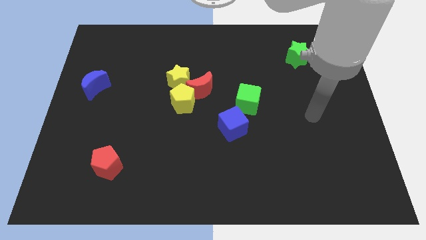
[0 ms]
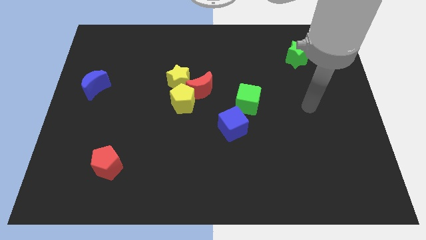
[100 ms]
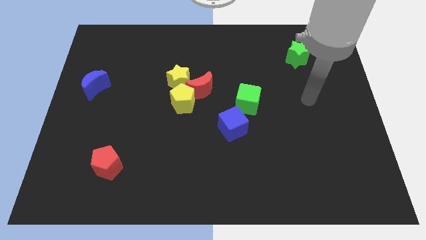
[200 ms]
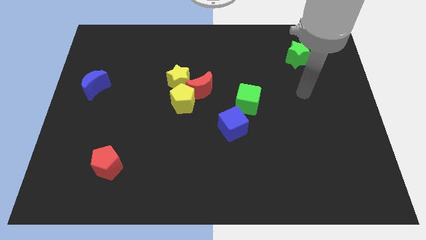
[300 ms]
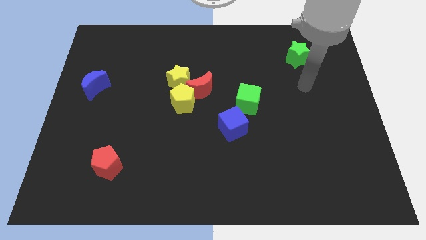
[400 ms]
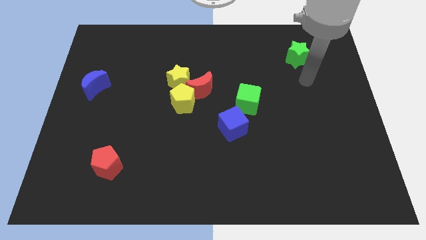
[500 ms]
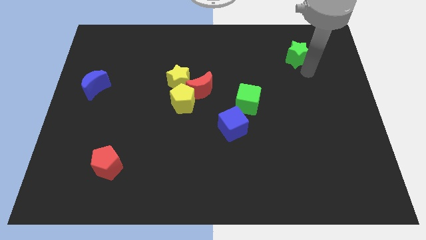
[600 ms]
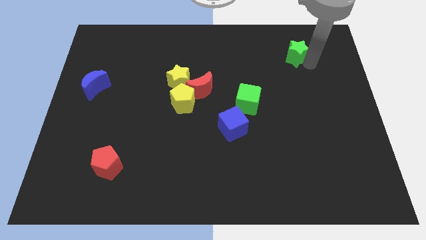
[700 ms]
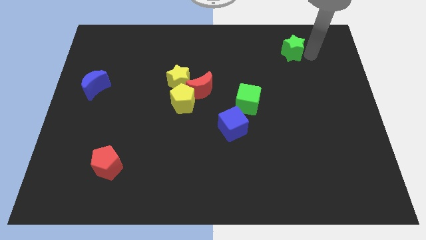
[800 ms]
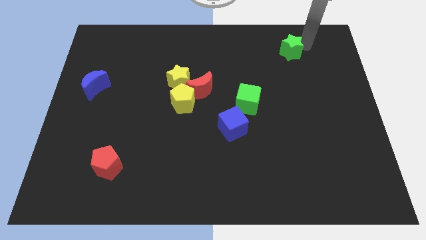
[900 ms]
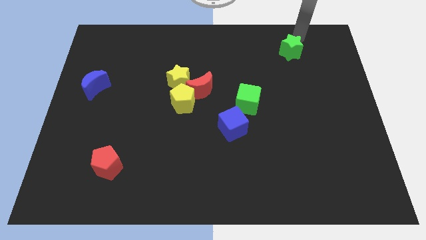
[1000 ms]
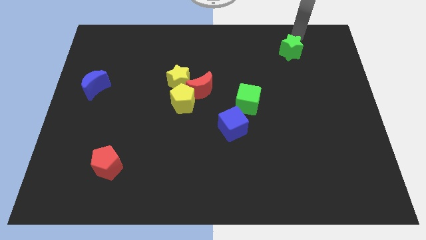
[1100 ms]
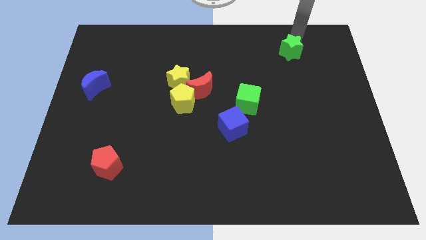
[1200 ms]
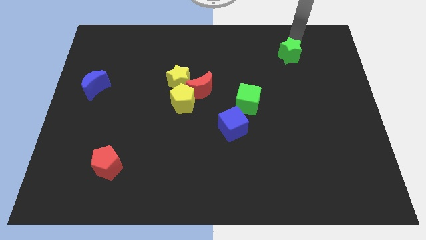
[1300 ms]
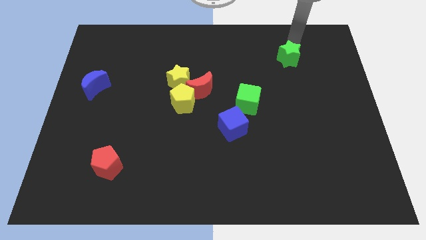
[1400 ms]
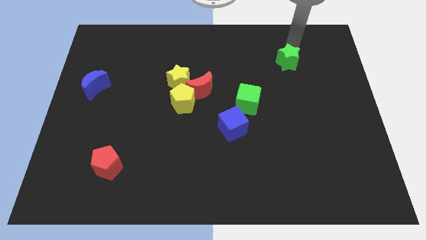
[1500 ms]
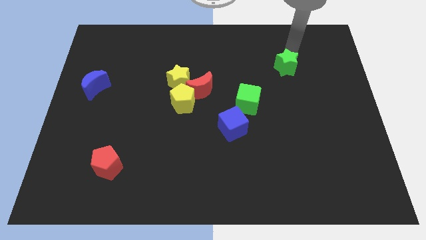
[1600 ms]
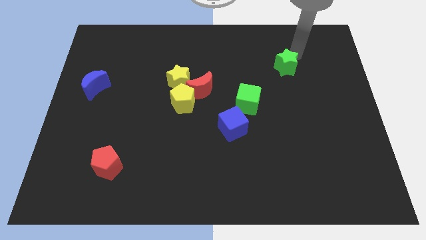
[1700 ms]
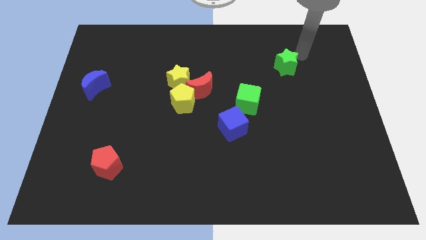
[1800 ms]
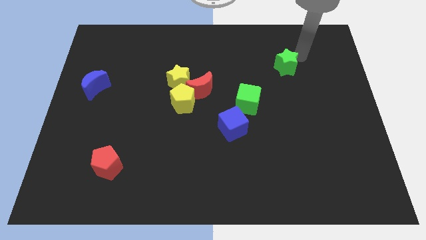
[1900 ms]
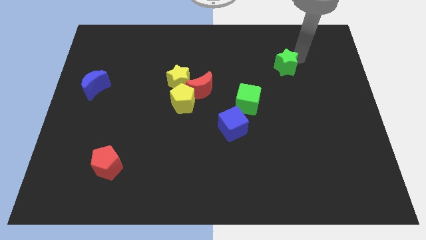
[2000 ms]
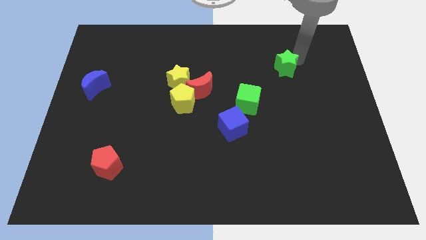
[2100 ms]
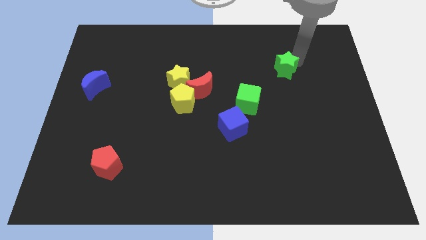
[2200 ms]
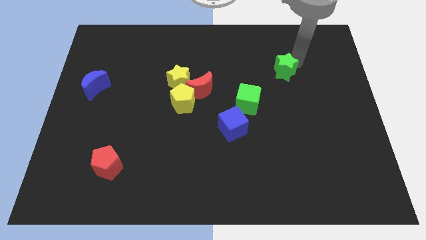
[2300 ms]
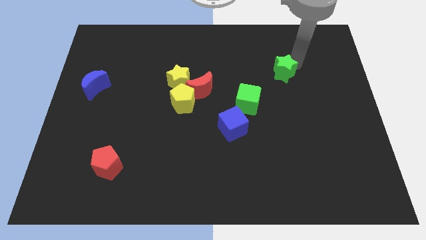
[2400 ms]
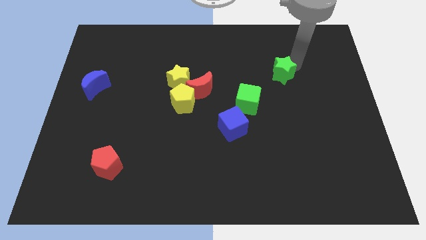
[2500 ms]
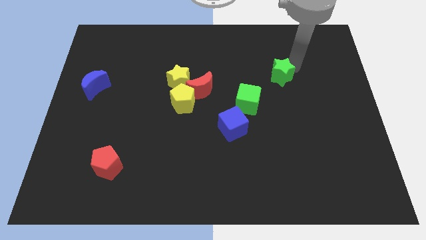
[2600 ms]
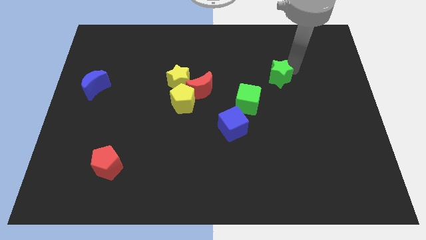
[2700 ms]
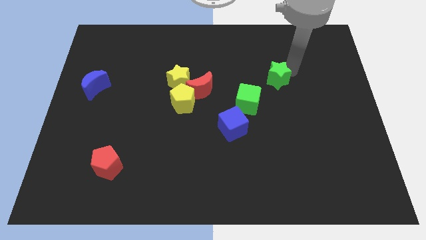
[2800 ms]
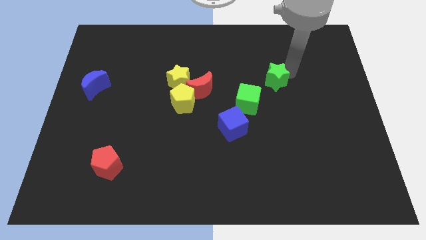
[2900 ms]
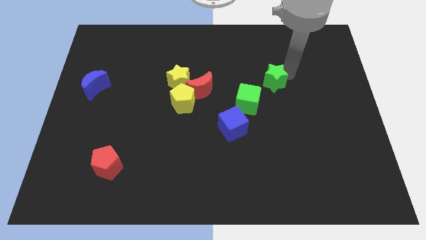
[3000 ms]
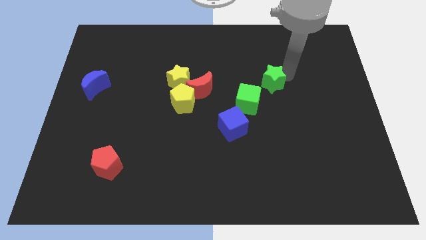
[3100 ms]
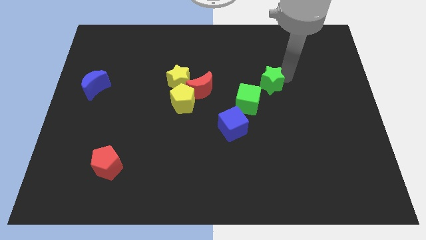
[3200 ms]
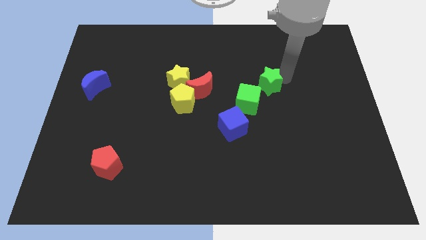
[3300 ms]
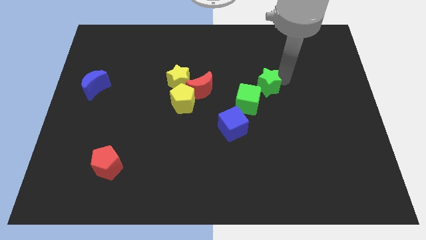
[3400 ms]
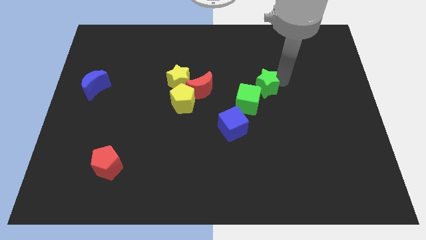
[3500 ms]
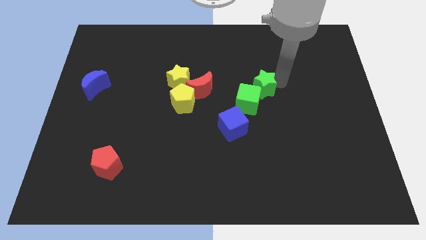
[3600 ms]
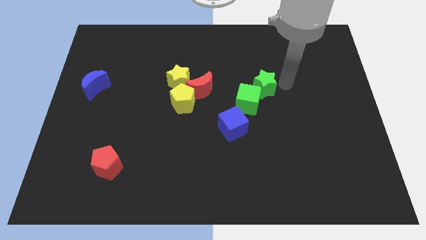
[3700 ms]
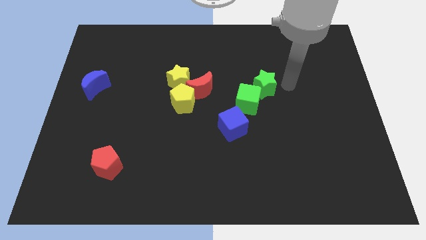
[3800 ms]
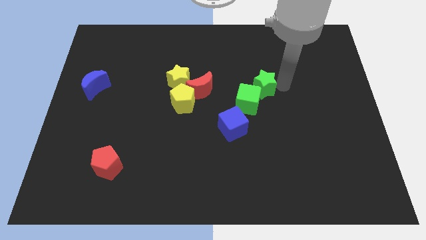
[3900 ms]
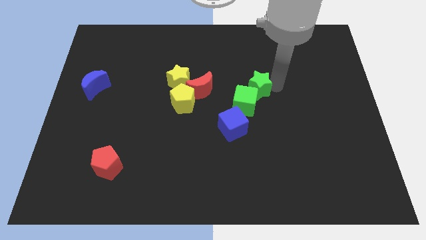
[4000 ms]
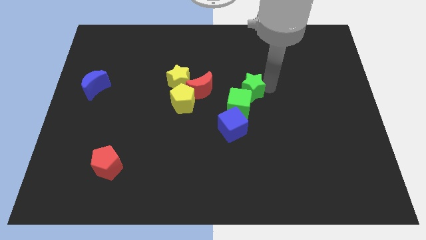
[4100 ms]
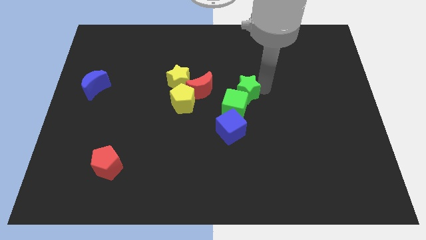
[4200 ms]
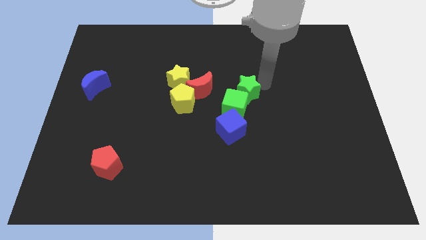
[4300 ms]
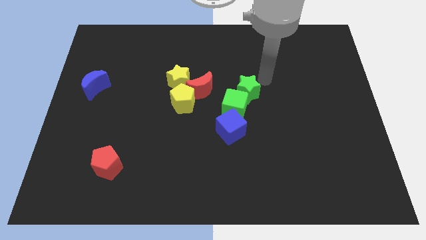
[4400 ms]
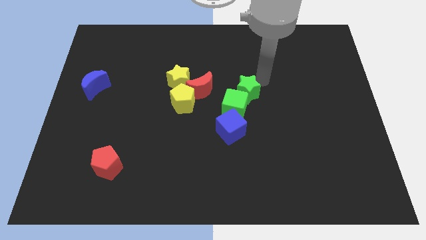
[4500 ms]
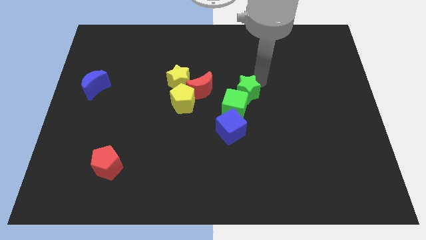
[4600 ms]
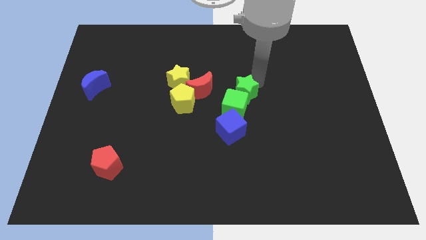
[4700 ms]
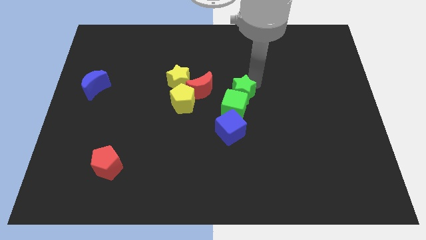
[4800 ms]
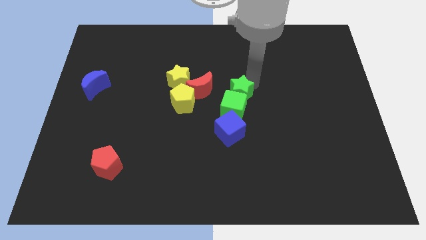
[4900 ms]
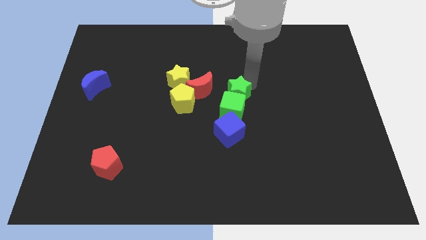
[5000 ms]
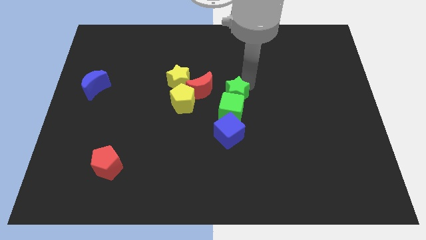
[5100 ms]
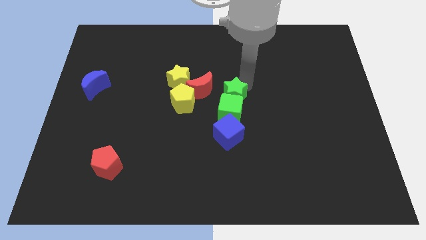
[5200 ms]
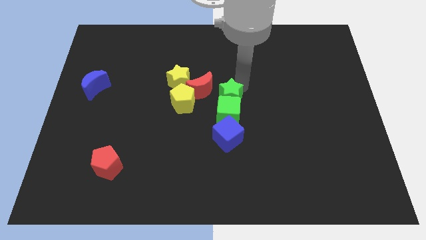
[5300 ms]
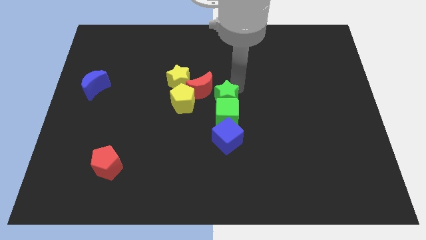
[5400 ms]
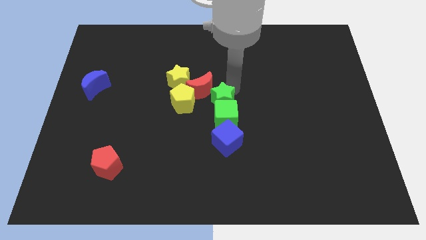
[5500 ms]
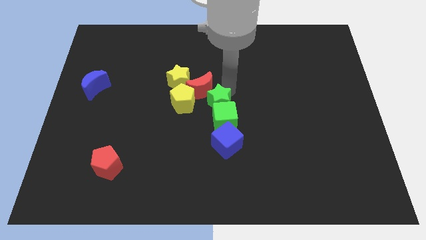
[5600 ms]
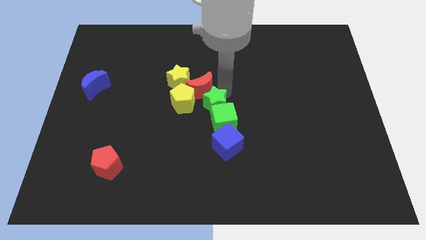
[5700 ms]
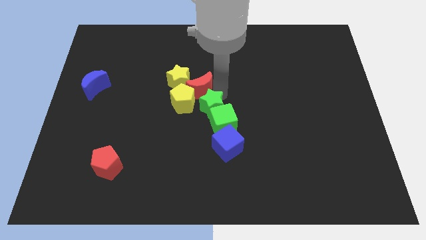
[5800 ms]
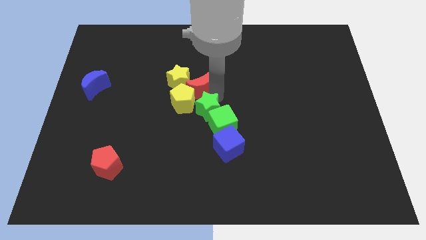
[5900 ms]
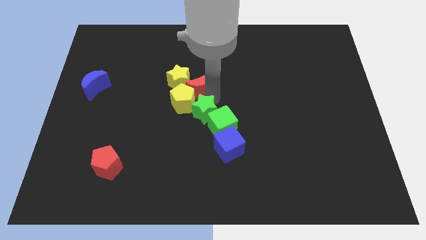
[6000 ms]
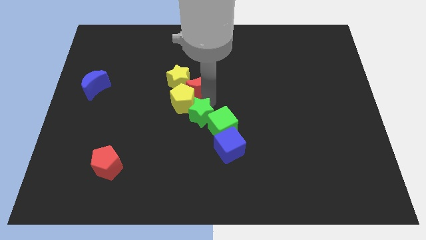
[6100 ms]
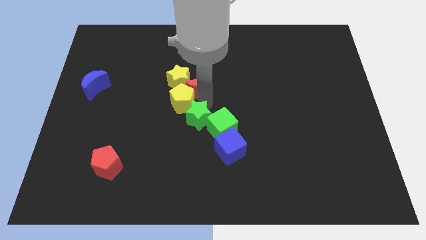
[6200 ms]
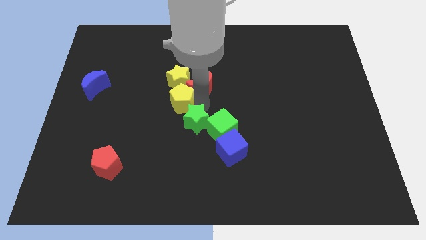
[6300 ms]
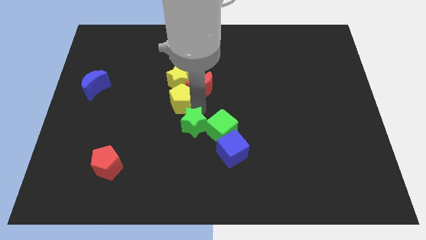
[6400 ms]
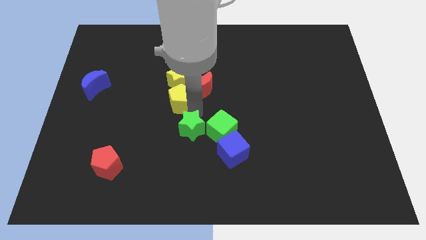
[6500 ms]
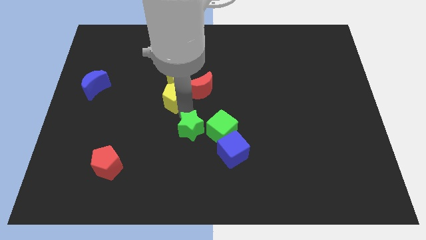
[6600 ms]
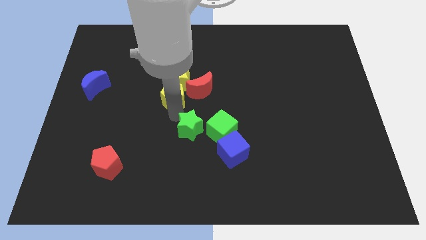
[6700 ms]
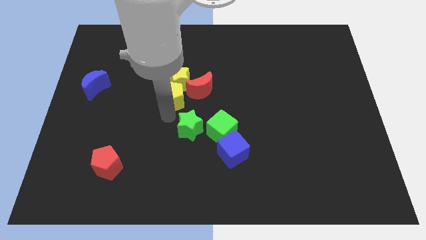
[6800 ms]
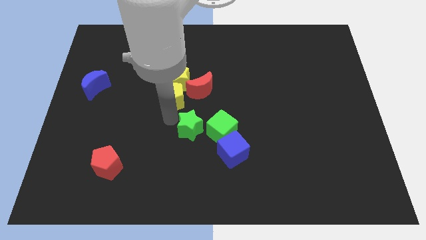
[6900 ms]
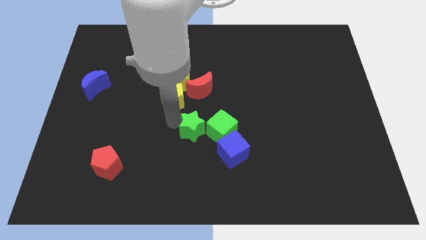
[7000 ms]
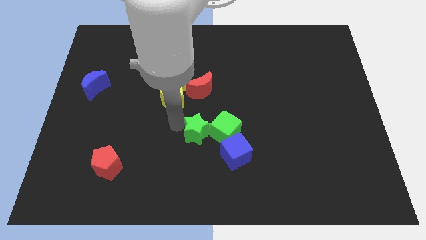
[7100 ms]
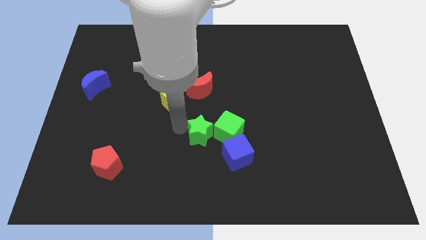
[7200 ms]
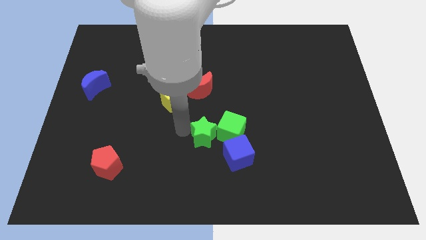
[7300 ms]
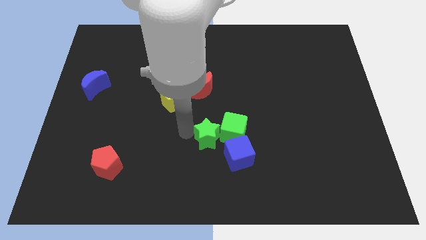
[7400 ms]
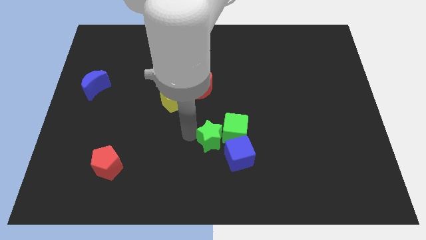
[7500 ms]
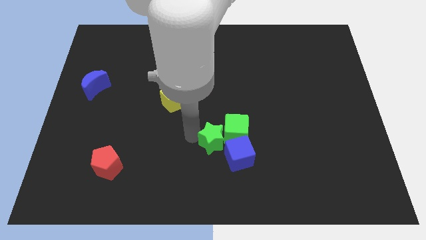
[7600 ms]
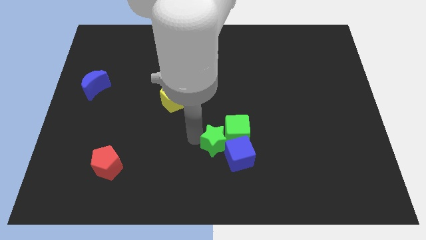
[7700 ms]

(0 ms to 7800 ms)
push the green star towards the blue cube

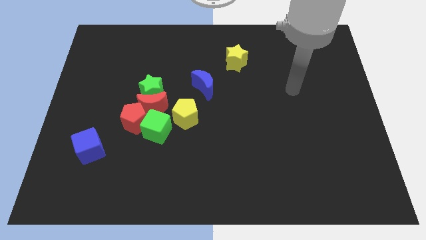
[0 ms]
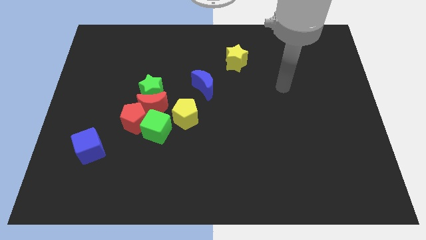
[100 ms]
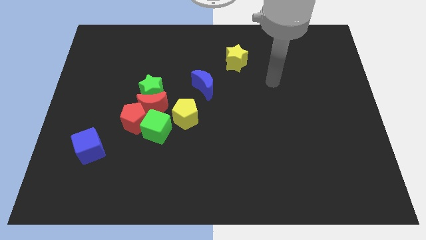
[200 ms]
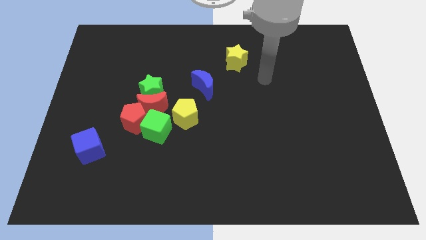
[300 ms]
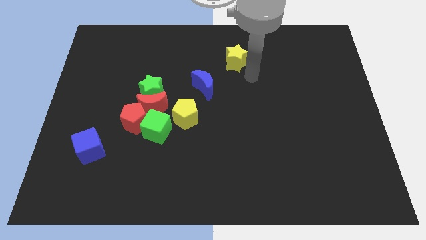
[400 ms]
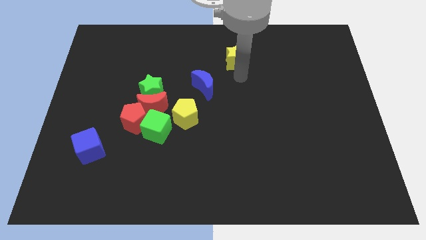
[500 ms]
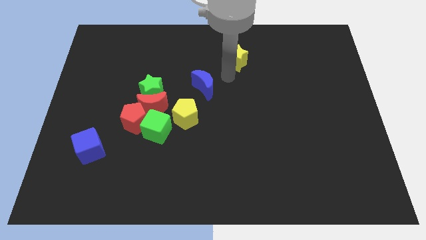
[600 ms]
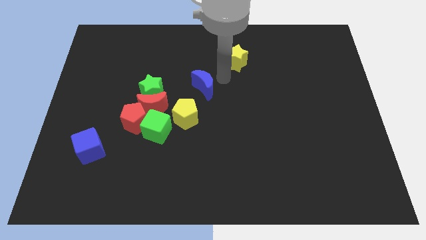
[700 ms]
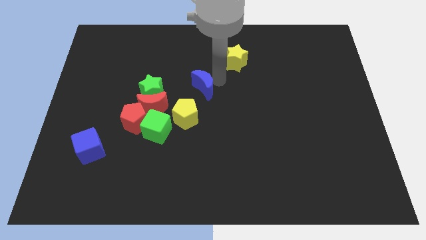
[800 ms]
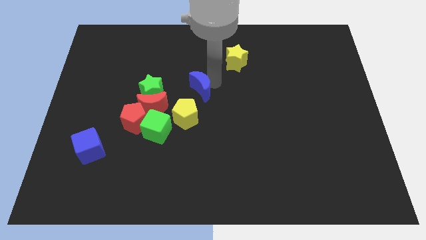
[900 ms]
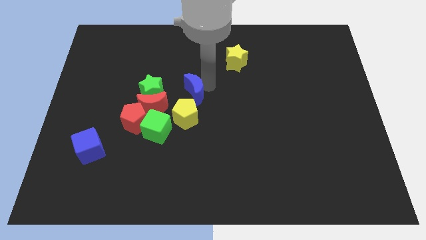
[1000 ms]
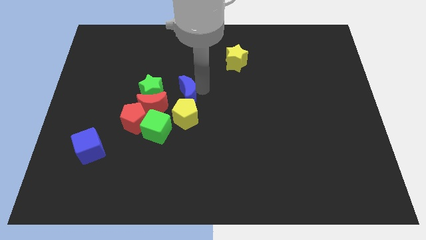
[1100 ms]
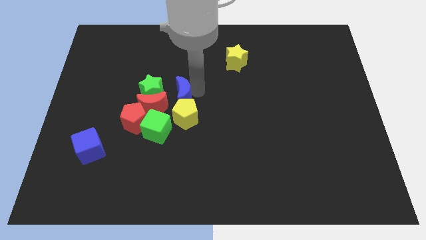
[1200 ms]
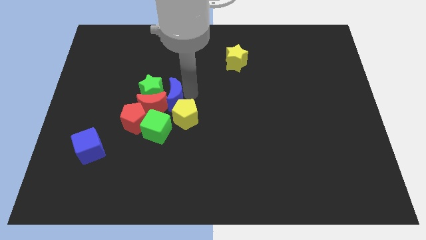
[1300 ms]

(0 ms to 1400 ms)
put the blue moon close to the red moon
